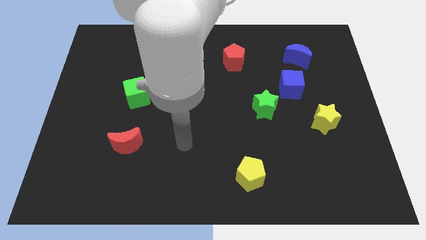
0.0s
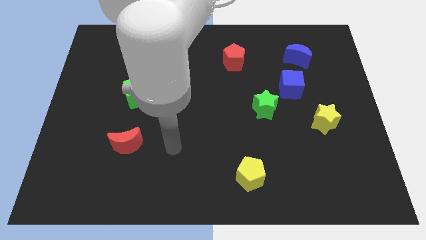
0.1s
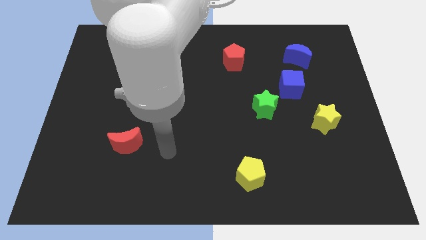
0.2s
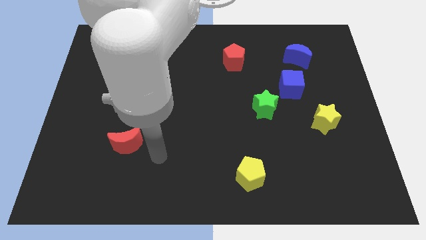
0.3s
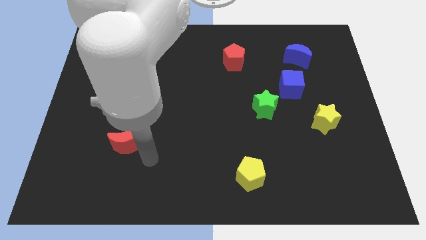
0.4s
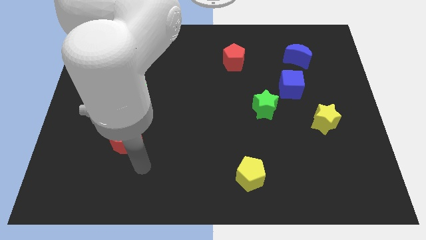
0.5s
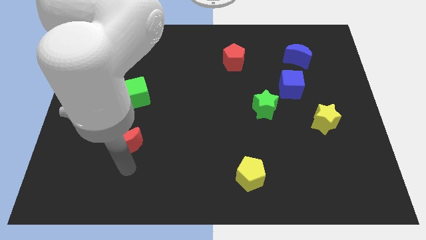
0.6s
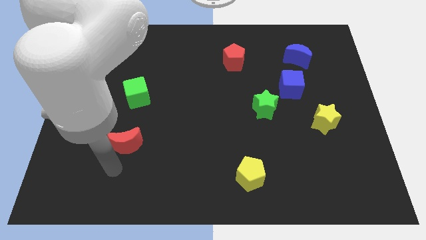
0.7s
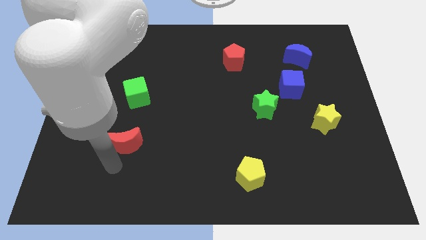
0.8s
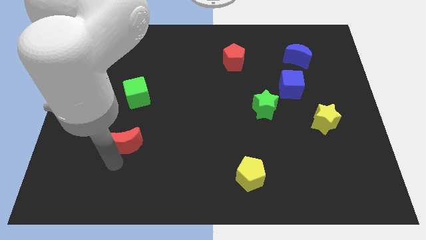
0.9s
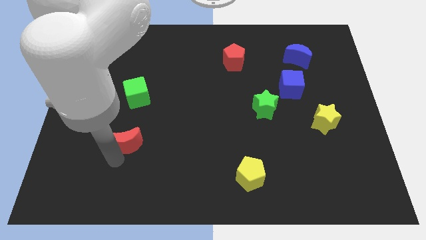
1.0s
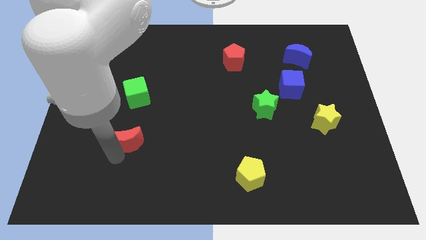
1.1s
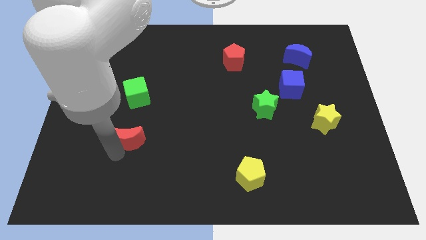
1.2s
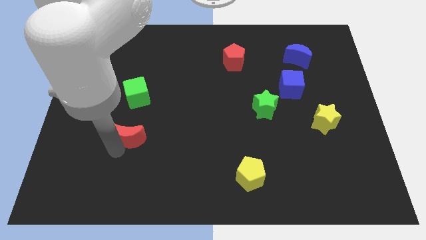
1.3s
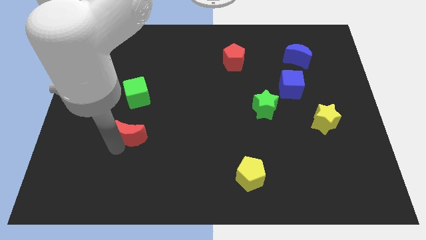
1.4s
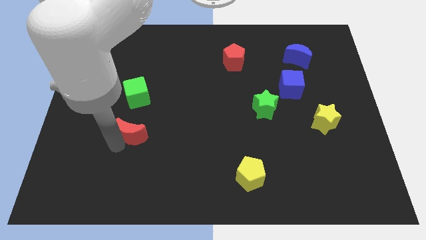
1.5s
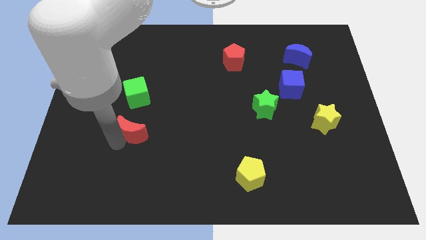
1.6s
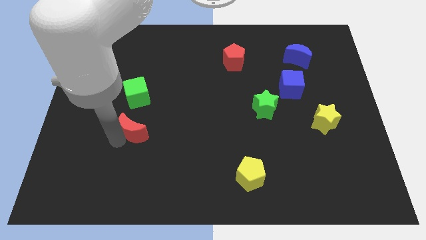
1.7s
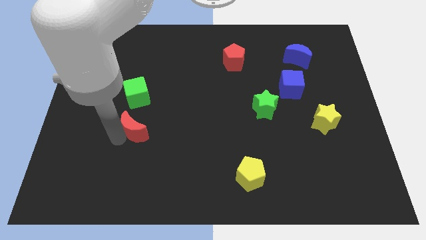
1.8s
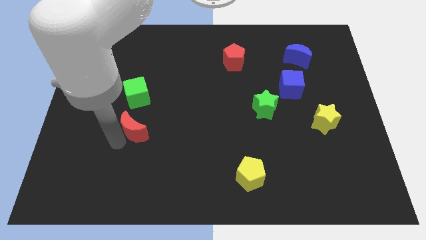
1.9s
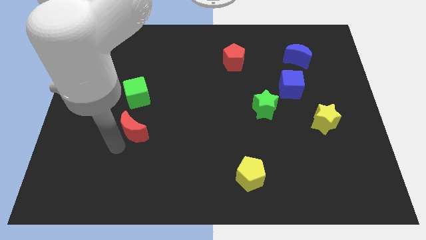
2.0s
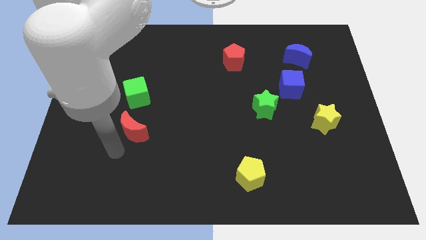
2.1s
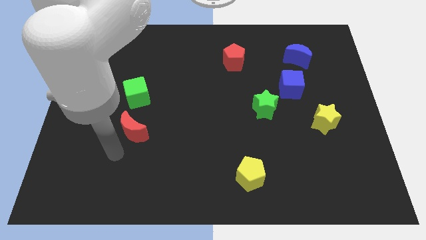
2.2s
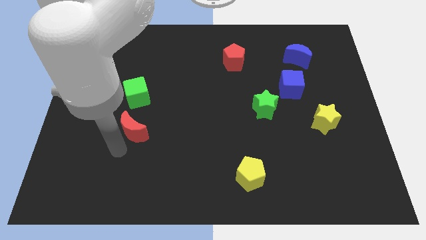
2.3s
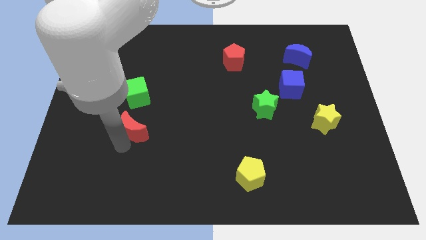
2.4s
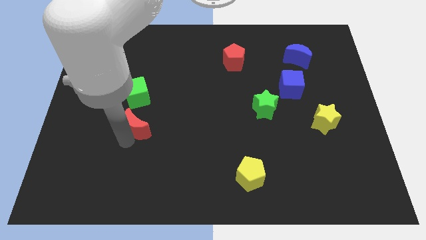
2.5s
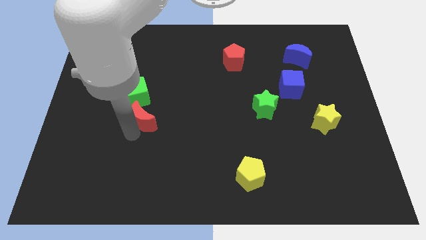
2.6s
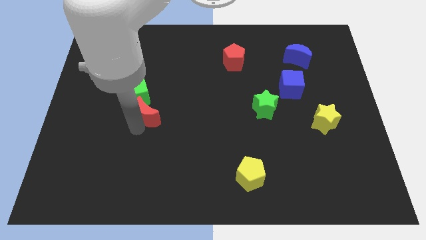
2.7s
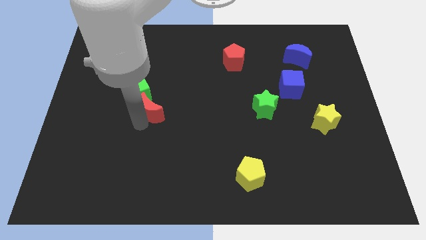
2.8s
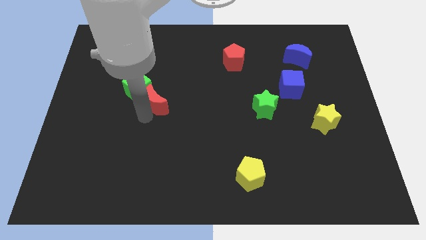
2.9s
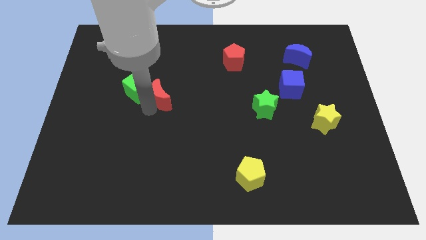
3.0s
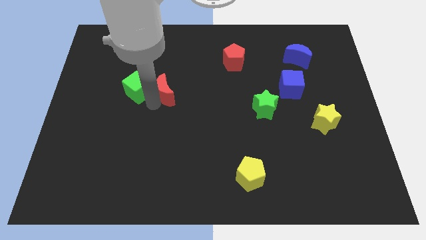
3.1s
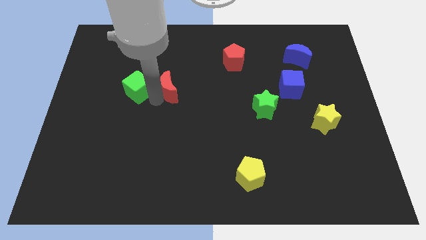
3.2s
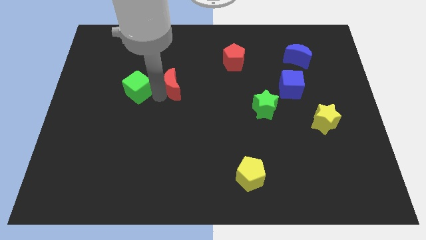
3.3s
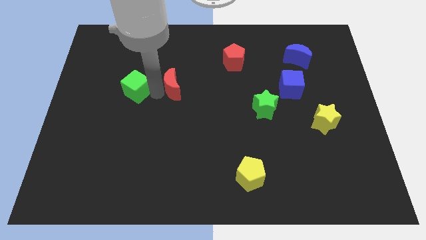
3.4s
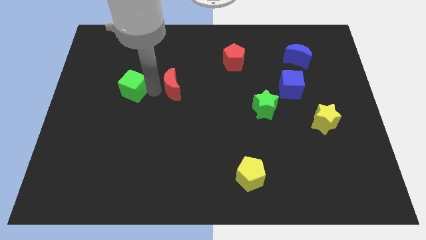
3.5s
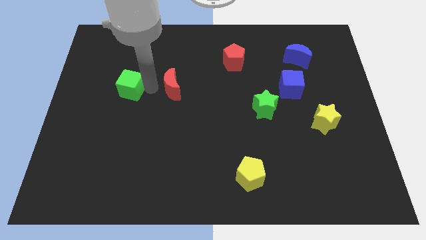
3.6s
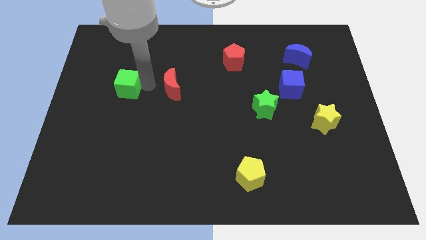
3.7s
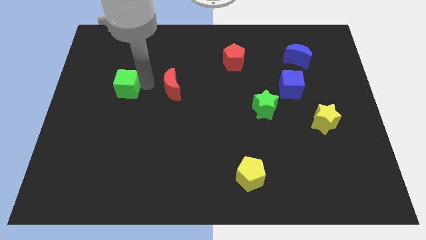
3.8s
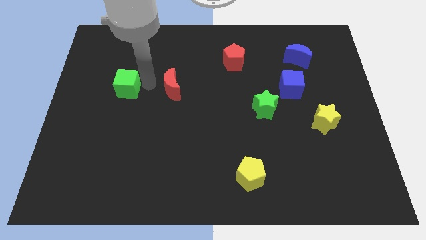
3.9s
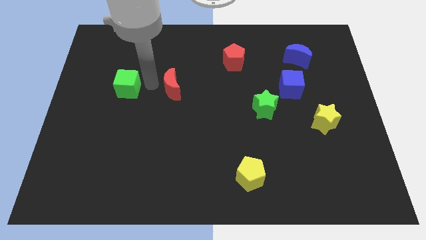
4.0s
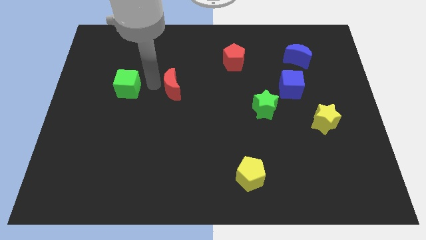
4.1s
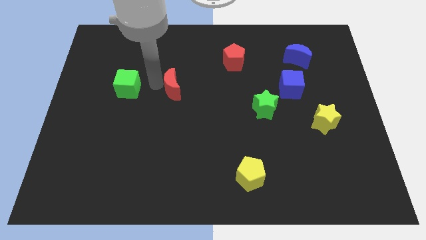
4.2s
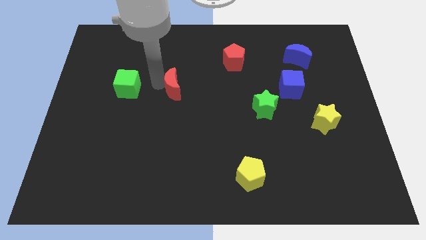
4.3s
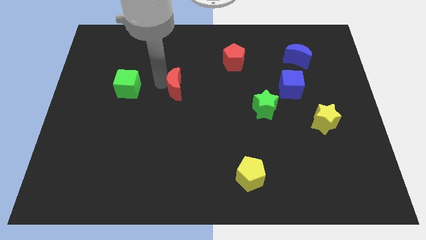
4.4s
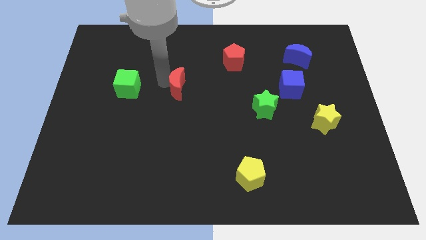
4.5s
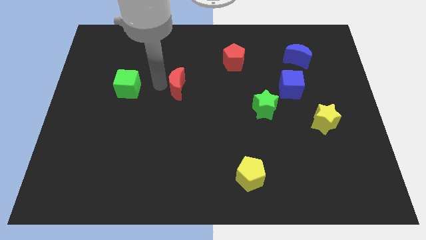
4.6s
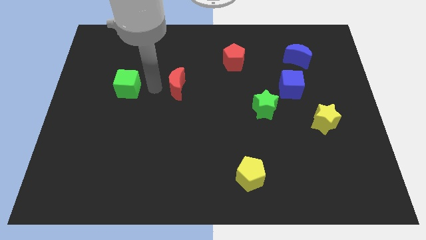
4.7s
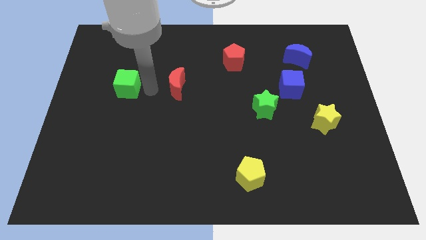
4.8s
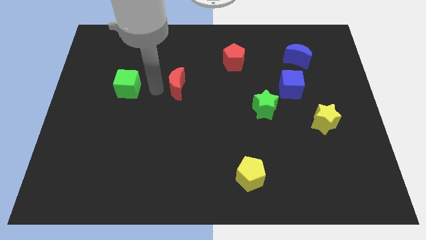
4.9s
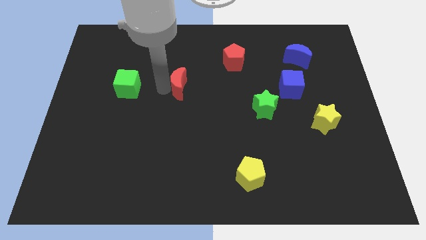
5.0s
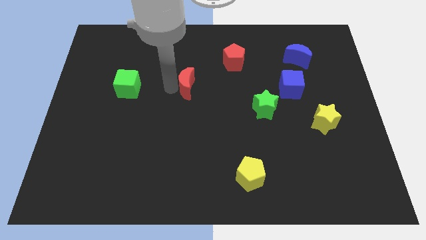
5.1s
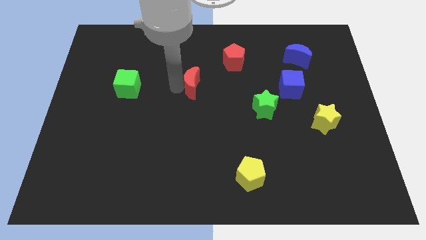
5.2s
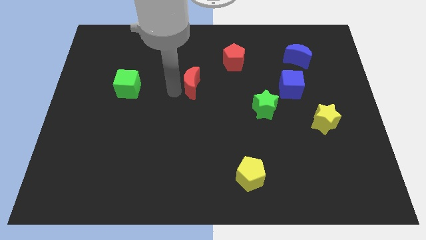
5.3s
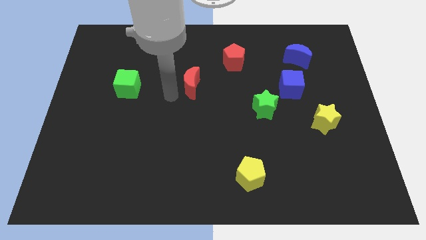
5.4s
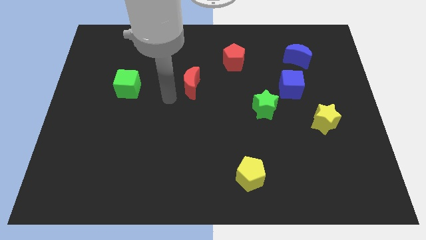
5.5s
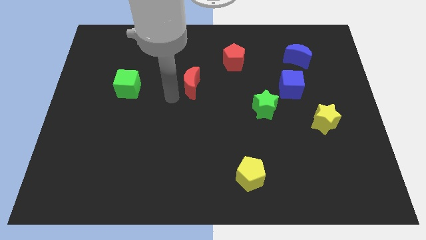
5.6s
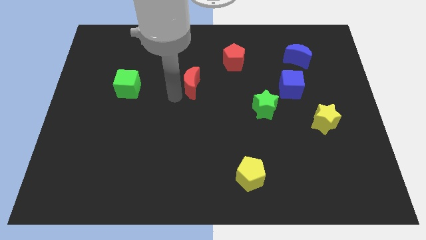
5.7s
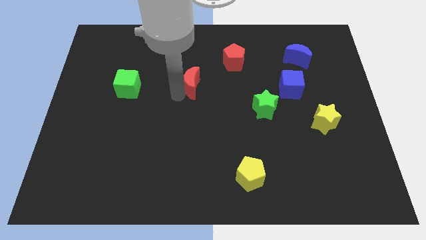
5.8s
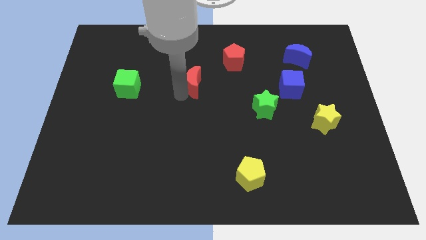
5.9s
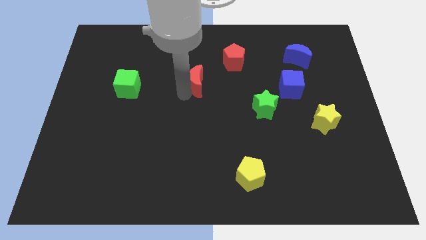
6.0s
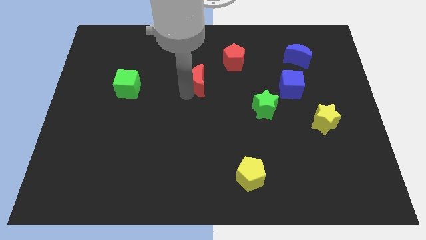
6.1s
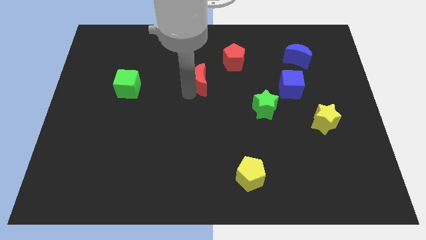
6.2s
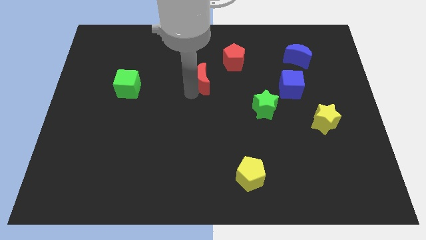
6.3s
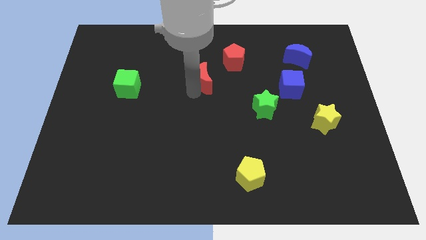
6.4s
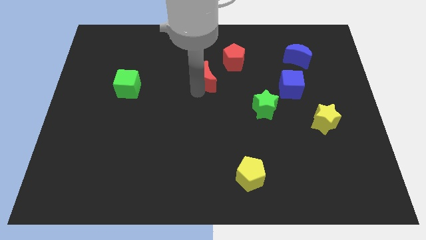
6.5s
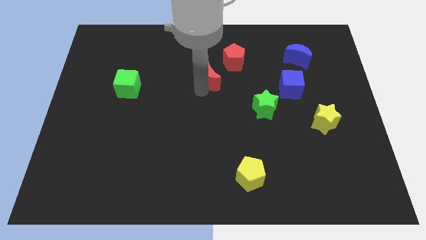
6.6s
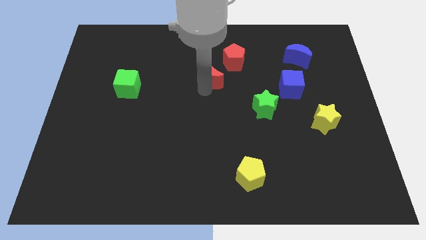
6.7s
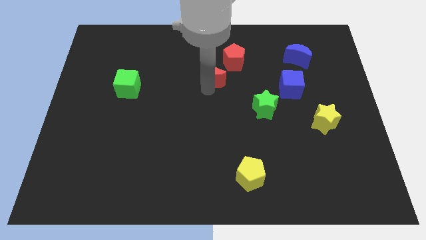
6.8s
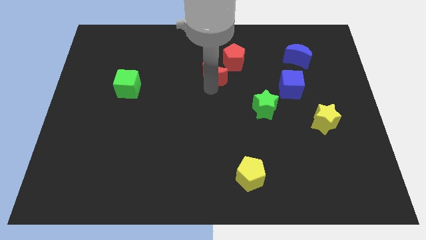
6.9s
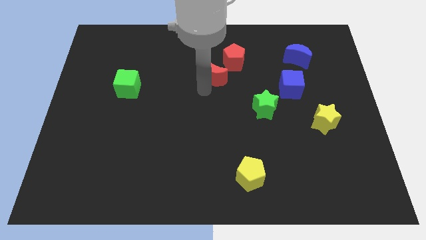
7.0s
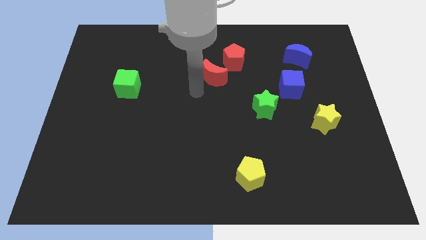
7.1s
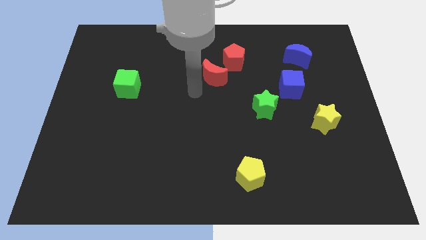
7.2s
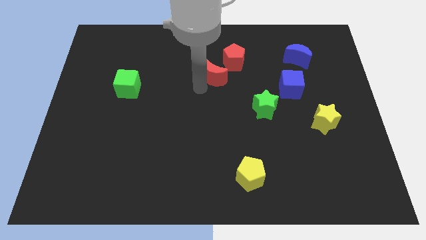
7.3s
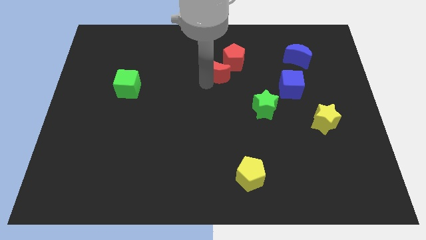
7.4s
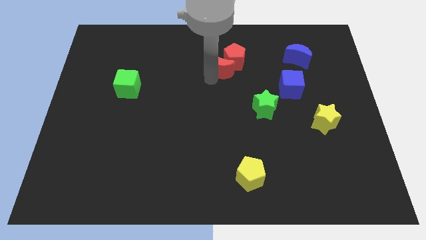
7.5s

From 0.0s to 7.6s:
move the red moon to the red pentagon

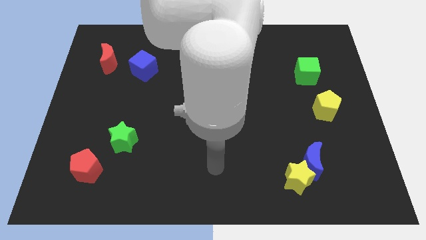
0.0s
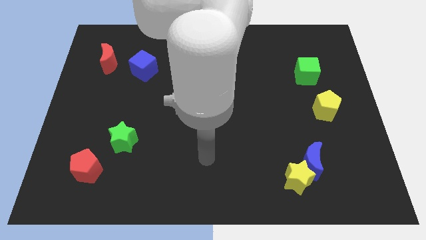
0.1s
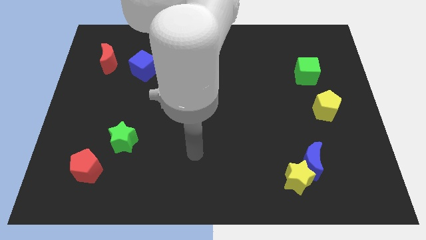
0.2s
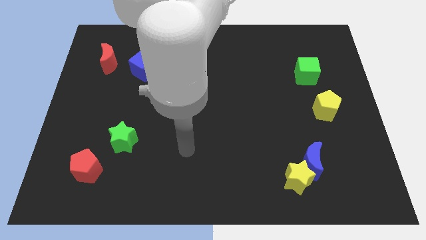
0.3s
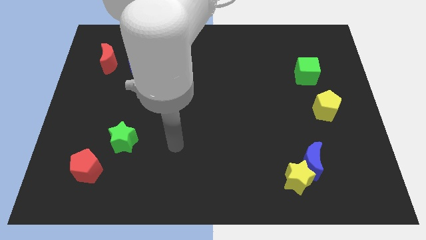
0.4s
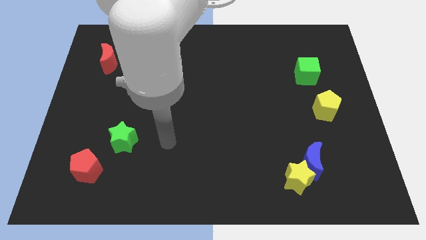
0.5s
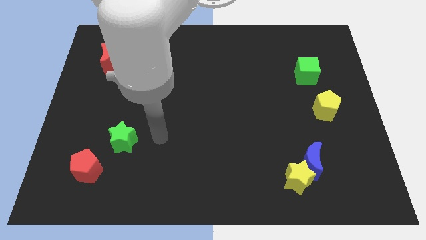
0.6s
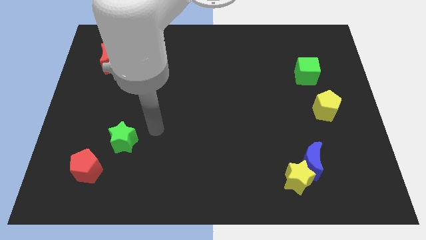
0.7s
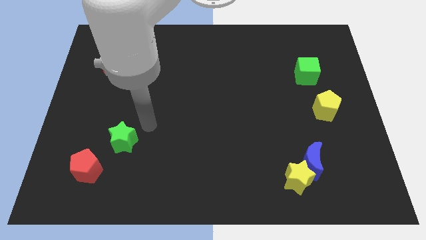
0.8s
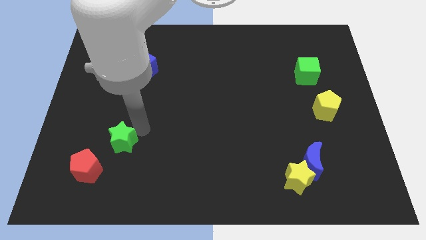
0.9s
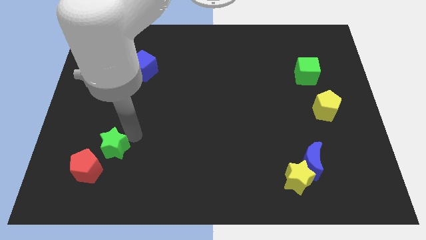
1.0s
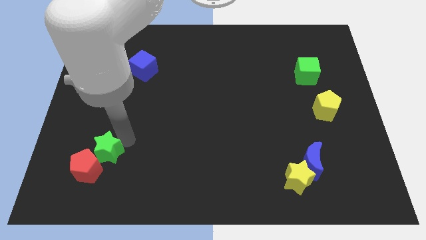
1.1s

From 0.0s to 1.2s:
move the green star to the red pentagon
